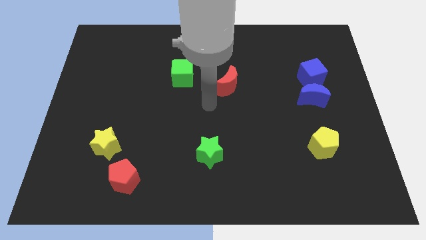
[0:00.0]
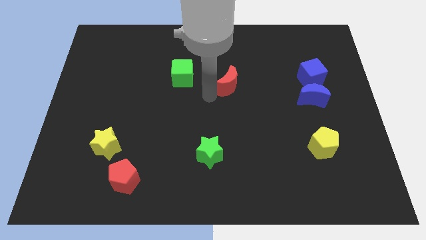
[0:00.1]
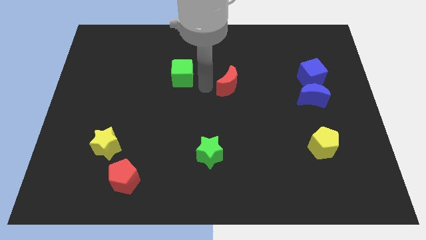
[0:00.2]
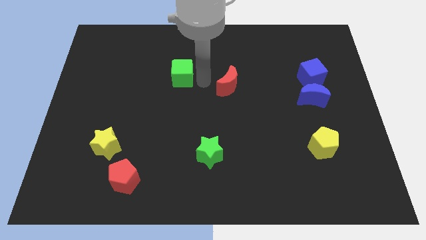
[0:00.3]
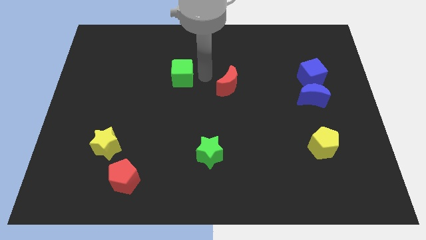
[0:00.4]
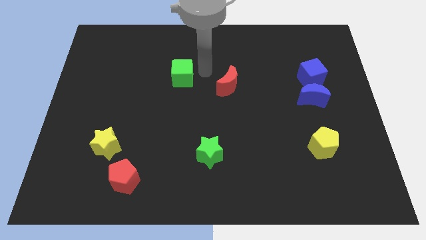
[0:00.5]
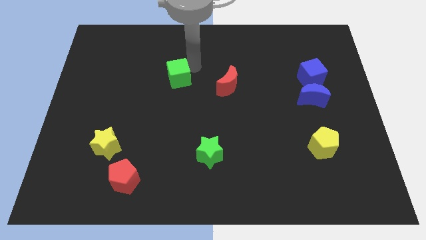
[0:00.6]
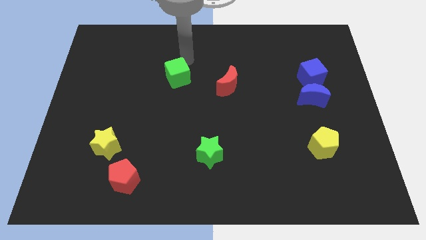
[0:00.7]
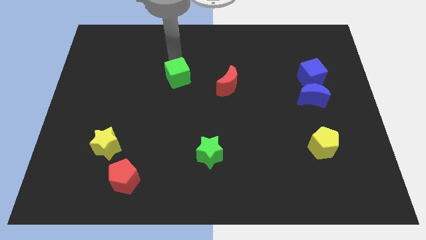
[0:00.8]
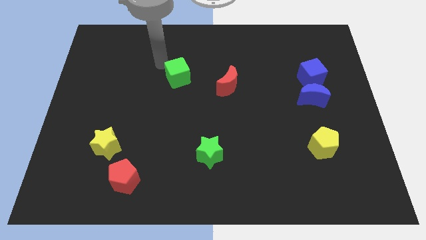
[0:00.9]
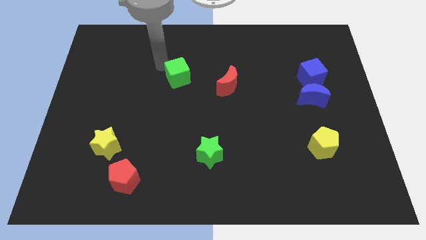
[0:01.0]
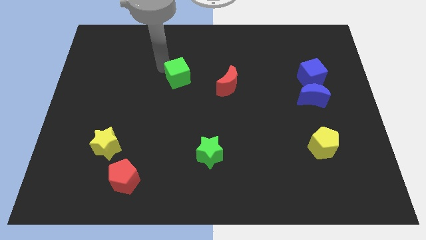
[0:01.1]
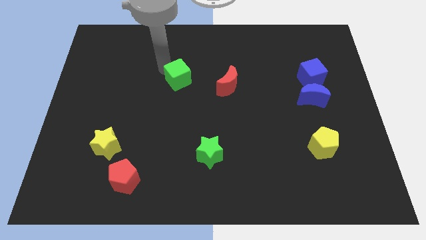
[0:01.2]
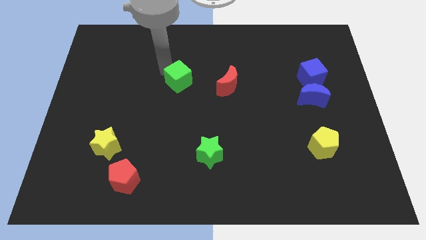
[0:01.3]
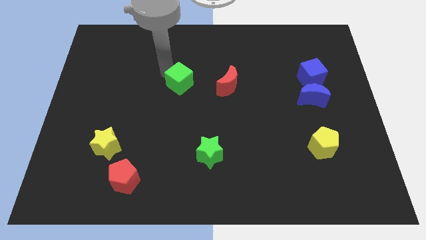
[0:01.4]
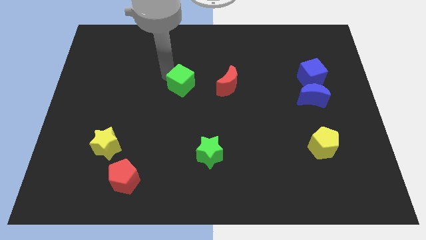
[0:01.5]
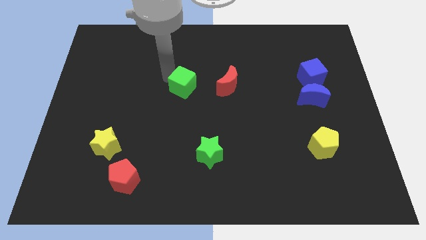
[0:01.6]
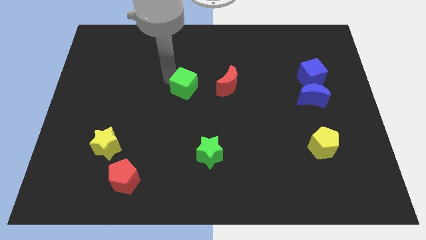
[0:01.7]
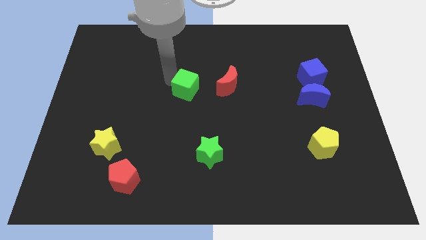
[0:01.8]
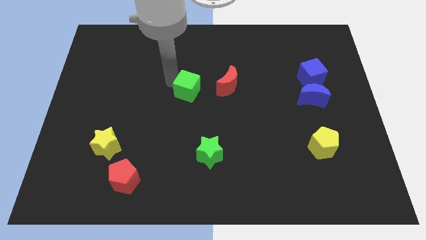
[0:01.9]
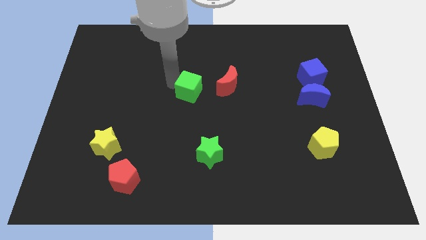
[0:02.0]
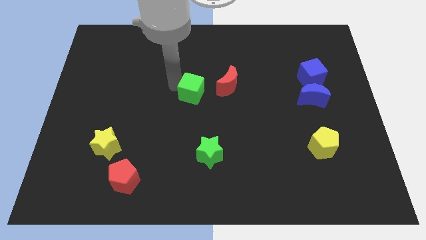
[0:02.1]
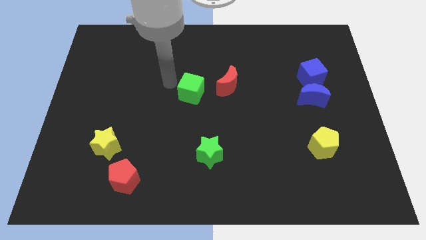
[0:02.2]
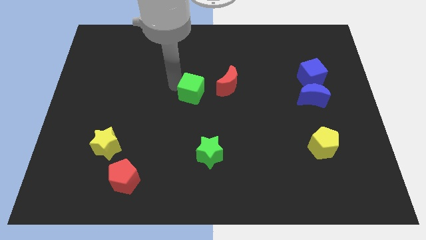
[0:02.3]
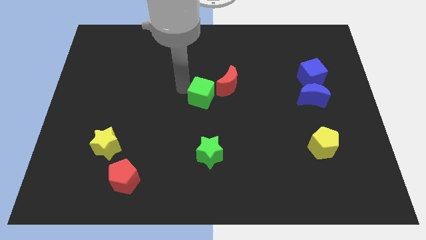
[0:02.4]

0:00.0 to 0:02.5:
move the green cube somewhat down and right diagonally

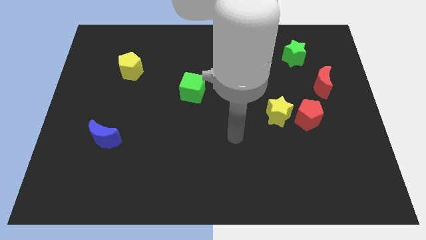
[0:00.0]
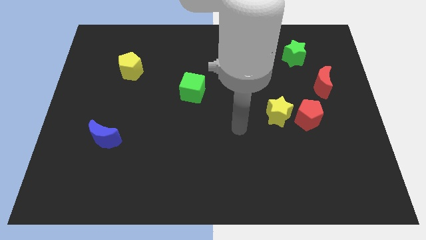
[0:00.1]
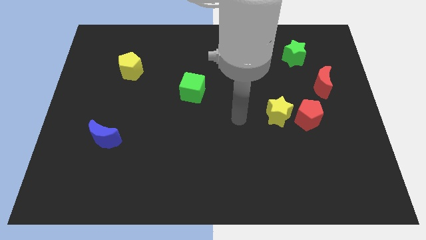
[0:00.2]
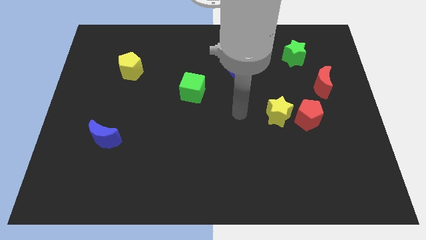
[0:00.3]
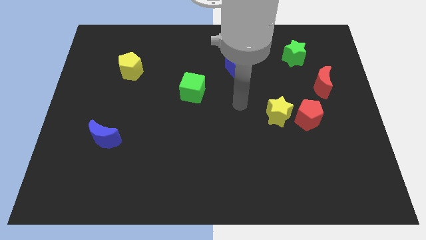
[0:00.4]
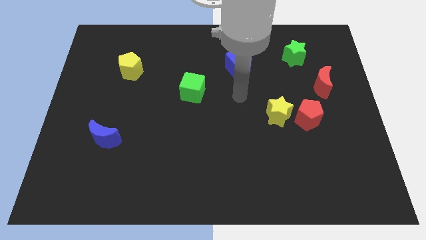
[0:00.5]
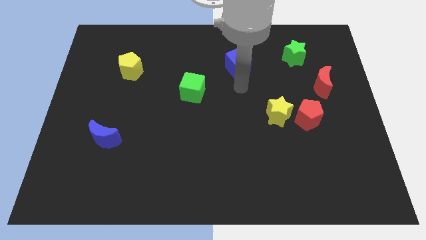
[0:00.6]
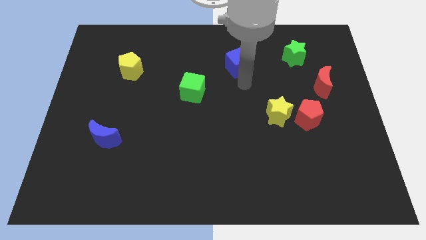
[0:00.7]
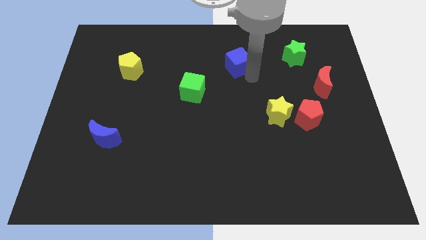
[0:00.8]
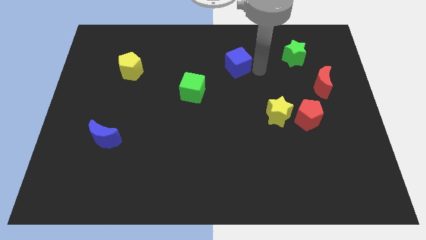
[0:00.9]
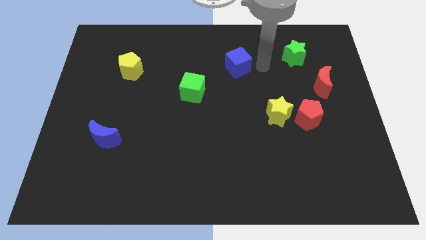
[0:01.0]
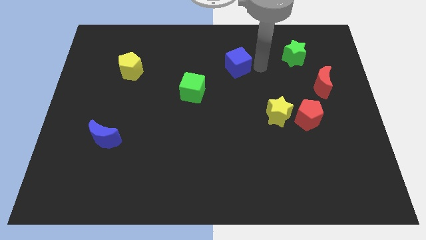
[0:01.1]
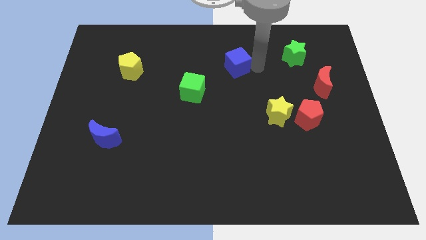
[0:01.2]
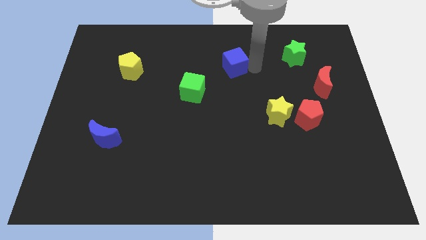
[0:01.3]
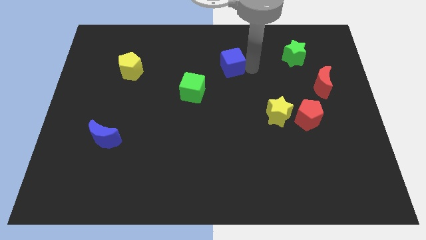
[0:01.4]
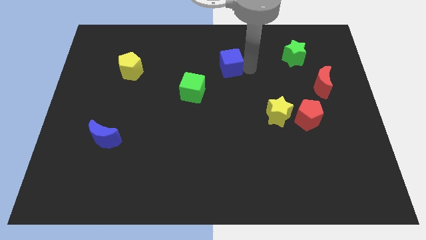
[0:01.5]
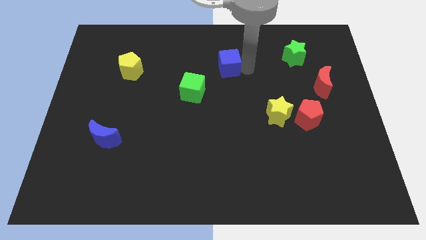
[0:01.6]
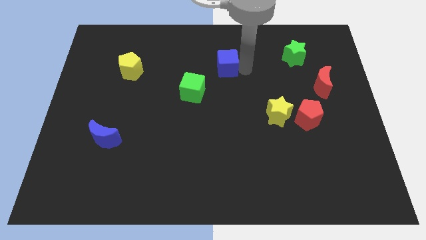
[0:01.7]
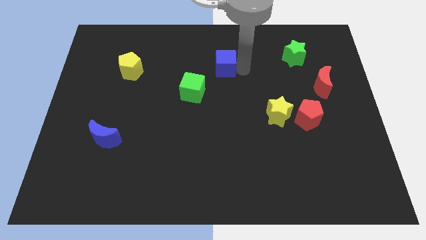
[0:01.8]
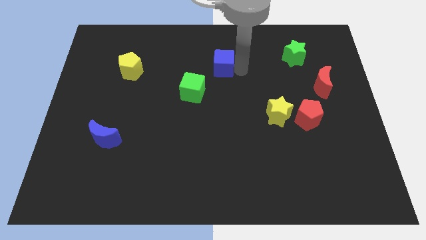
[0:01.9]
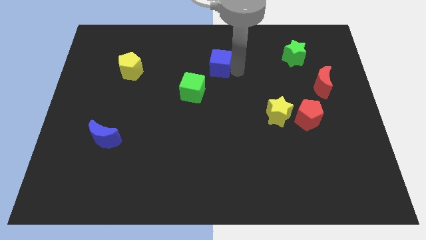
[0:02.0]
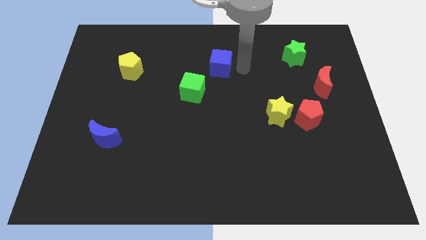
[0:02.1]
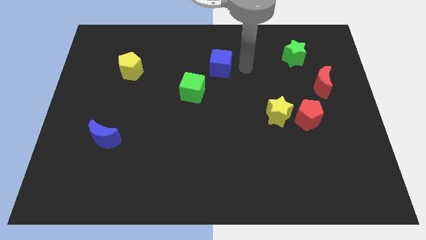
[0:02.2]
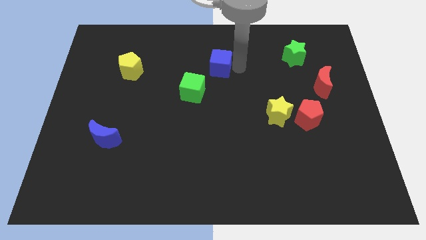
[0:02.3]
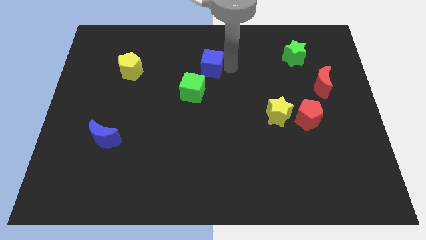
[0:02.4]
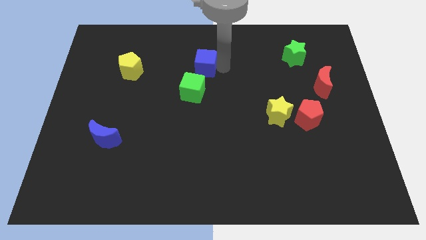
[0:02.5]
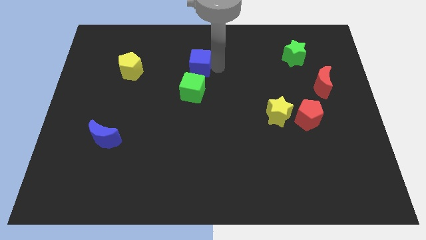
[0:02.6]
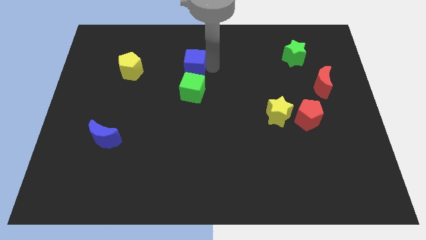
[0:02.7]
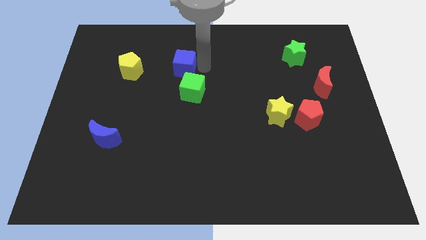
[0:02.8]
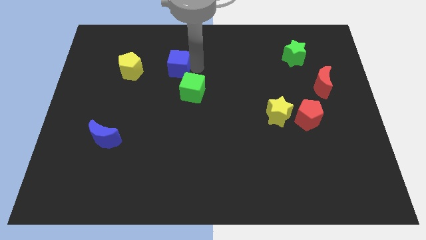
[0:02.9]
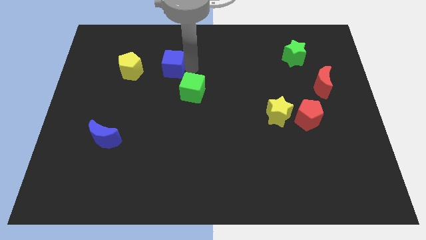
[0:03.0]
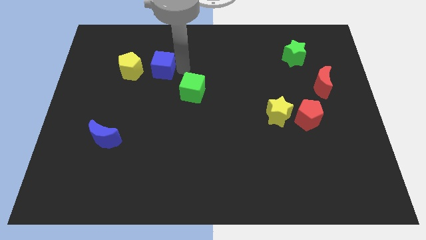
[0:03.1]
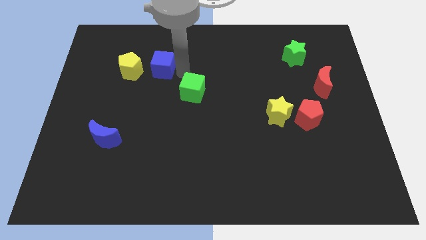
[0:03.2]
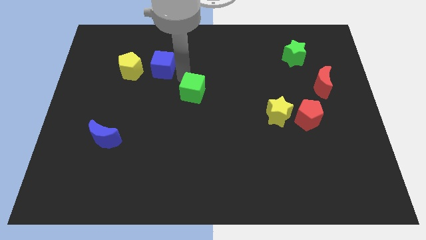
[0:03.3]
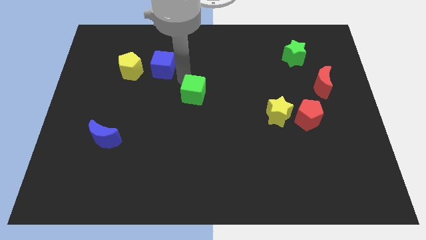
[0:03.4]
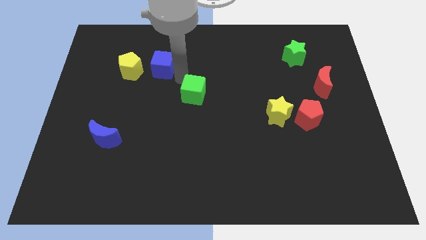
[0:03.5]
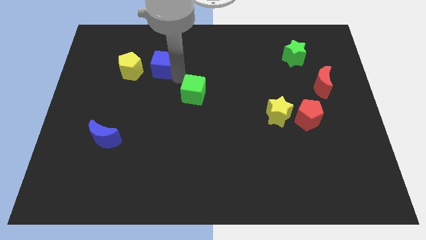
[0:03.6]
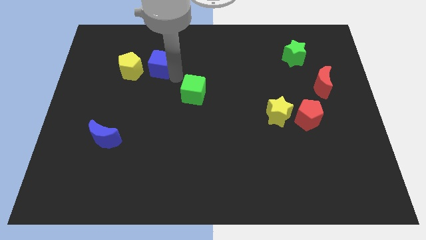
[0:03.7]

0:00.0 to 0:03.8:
move the blue cube to the left

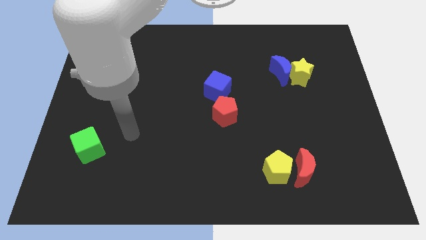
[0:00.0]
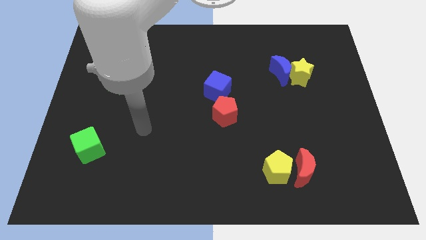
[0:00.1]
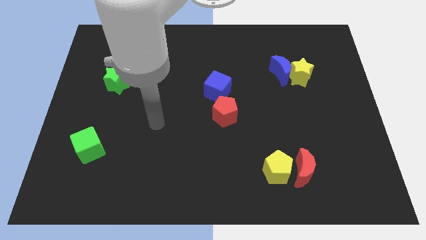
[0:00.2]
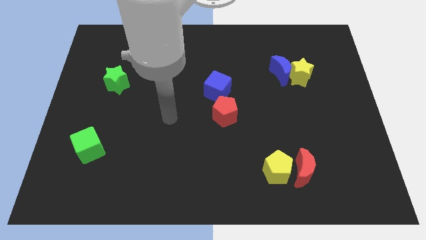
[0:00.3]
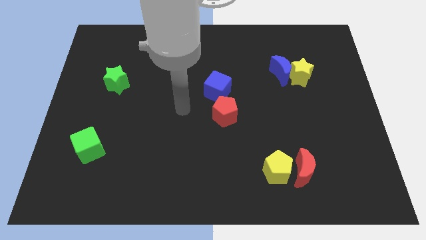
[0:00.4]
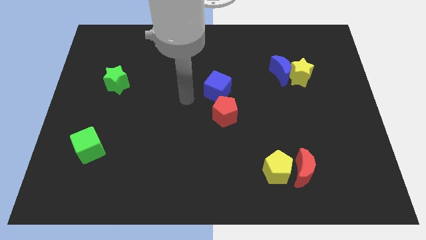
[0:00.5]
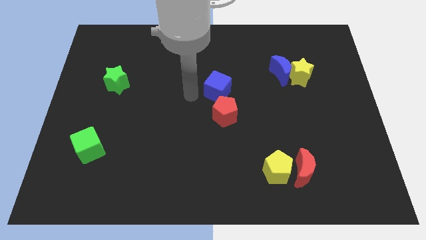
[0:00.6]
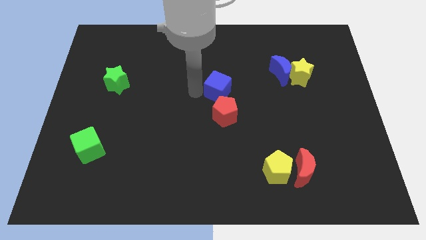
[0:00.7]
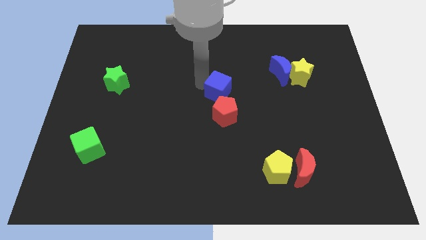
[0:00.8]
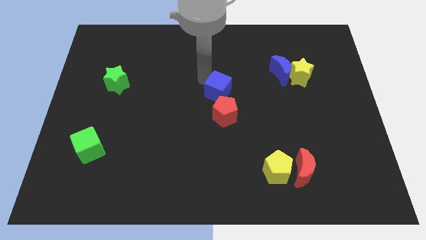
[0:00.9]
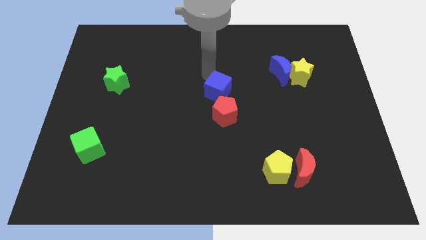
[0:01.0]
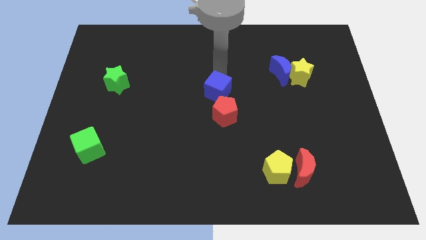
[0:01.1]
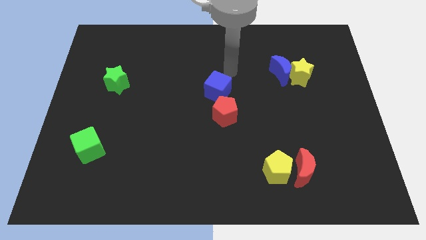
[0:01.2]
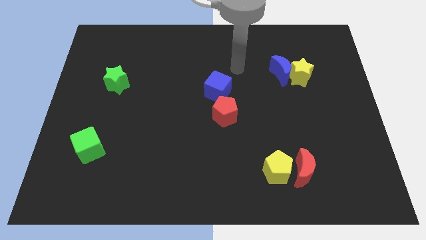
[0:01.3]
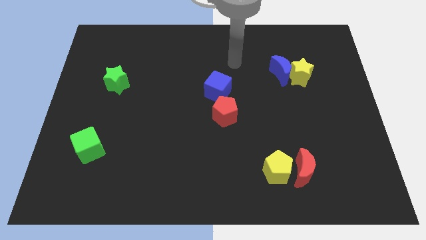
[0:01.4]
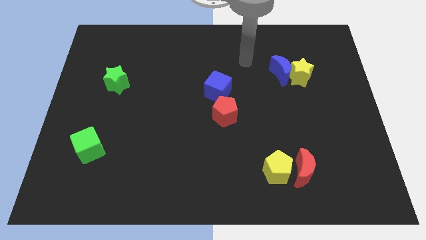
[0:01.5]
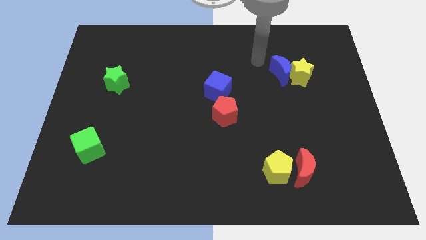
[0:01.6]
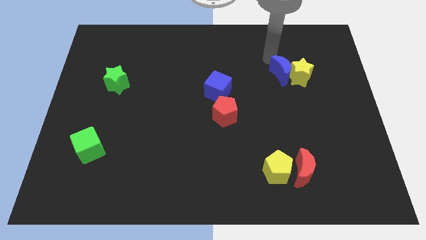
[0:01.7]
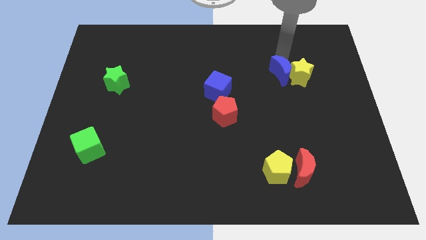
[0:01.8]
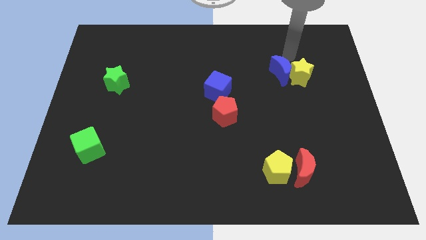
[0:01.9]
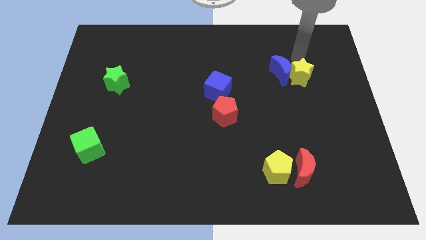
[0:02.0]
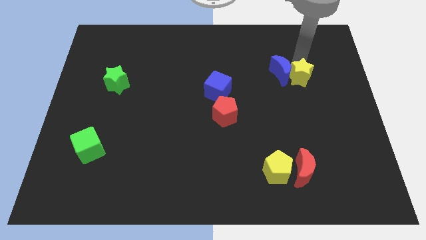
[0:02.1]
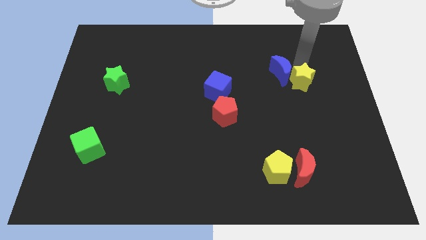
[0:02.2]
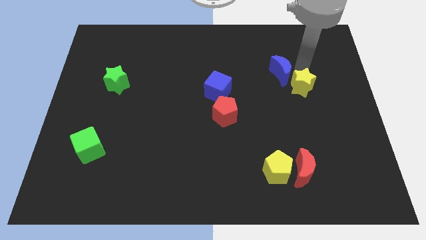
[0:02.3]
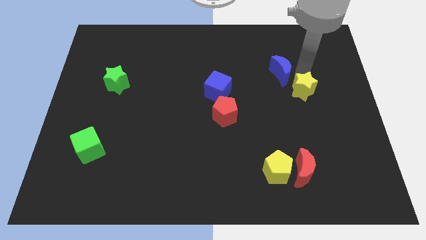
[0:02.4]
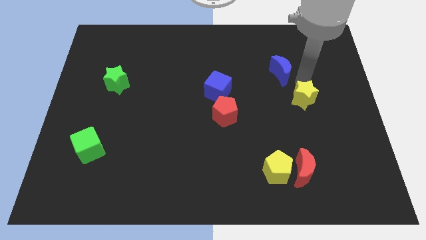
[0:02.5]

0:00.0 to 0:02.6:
slide the yellow star downwards a little bit
